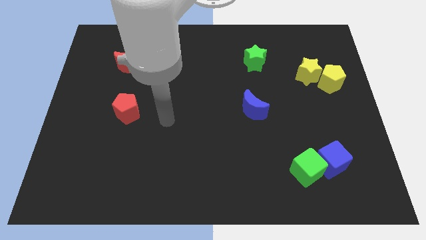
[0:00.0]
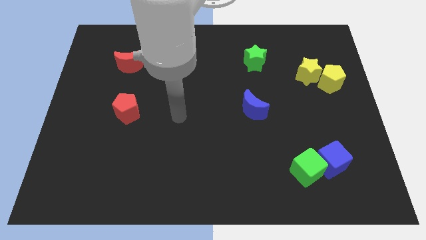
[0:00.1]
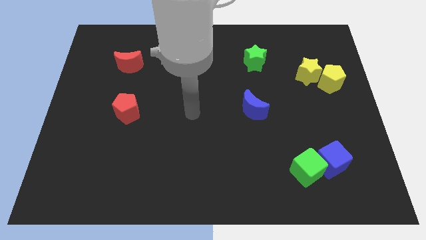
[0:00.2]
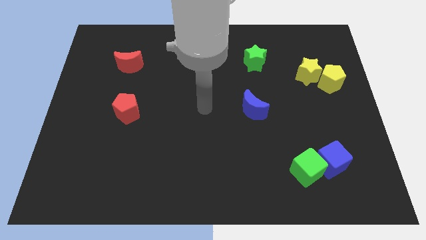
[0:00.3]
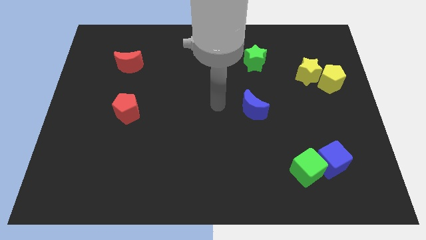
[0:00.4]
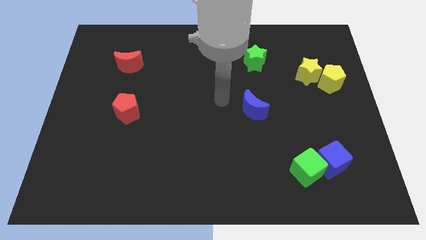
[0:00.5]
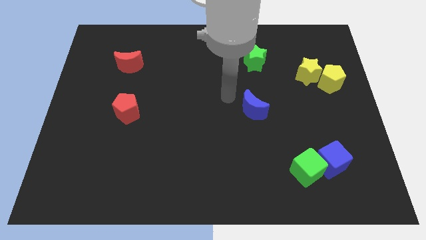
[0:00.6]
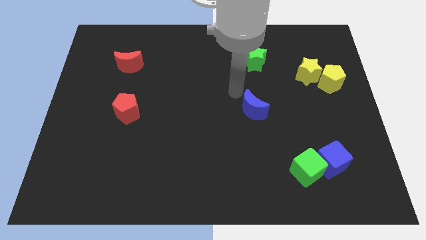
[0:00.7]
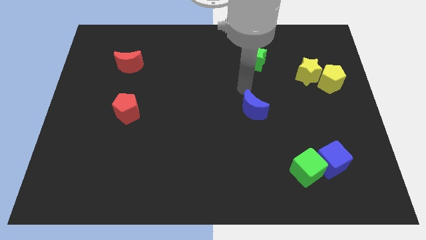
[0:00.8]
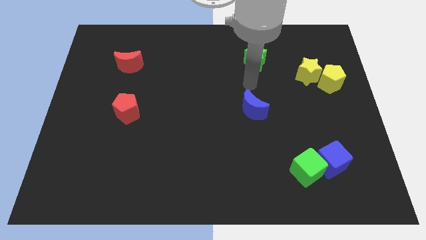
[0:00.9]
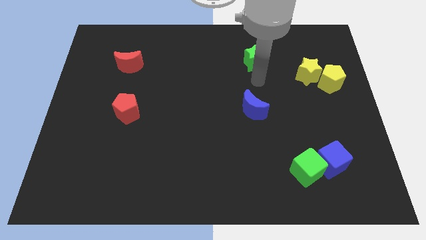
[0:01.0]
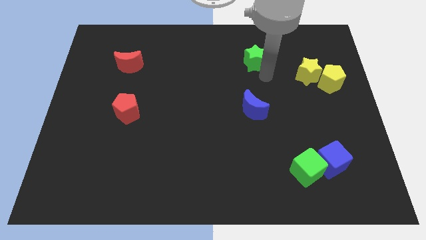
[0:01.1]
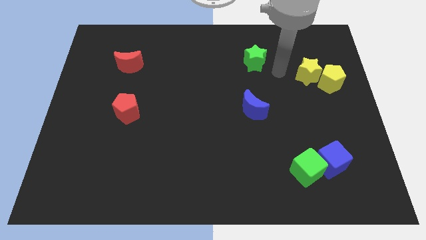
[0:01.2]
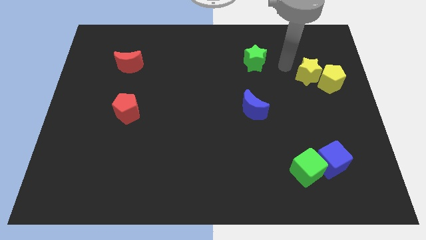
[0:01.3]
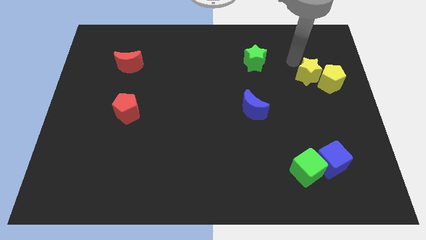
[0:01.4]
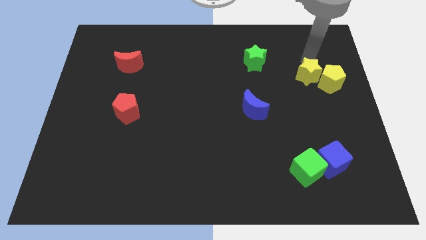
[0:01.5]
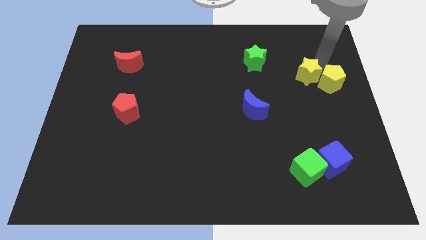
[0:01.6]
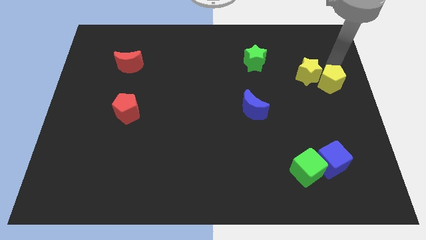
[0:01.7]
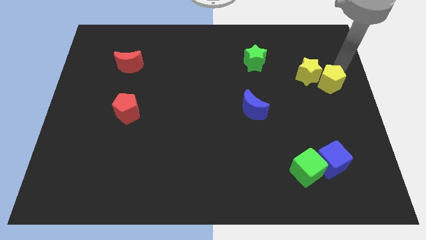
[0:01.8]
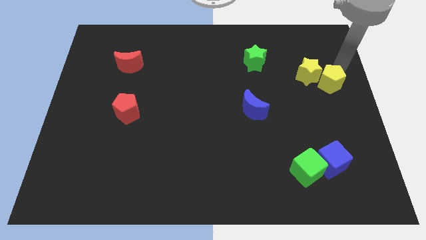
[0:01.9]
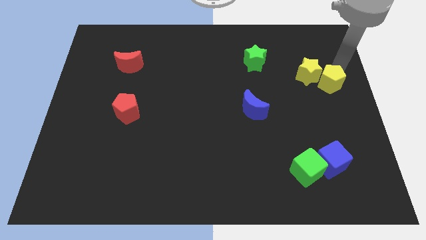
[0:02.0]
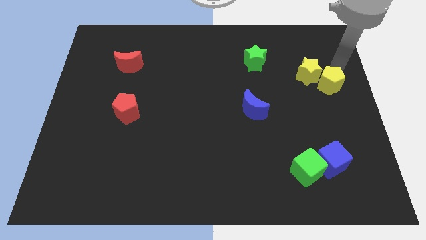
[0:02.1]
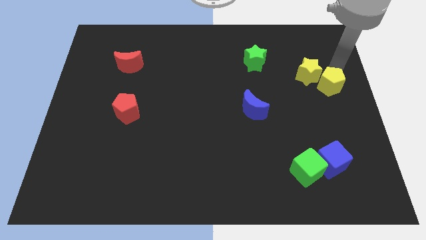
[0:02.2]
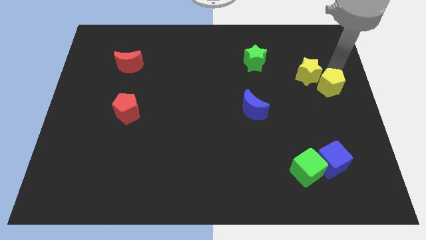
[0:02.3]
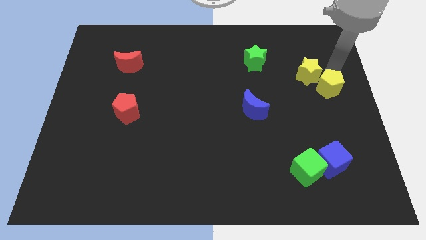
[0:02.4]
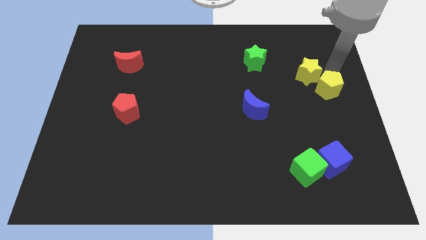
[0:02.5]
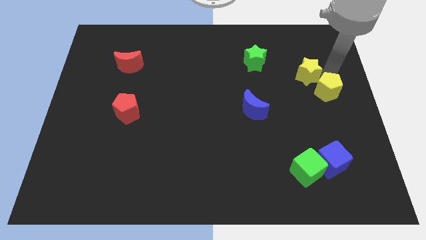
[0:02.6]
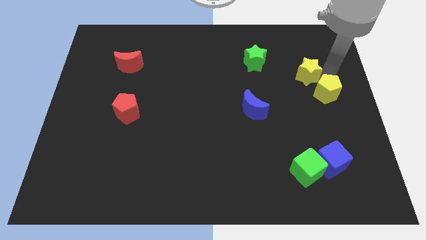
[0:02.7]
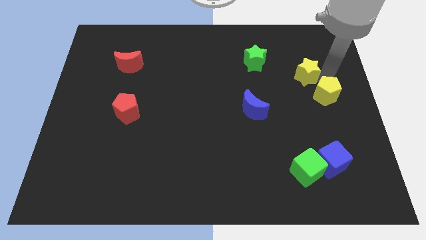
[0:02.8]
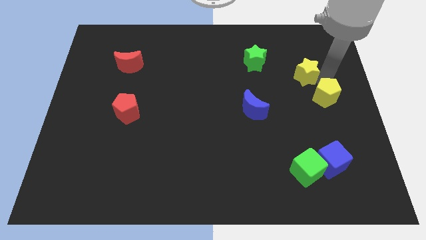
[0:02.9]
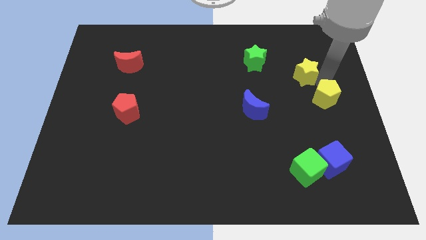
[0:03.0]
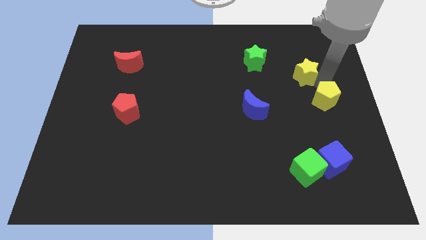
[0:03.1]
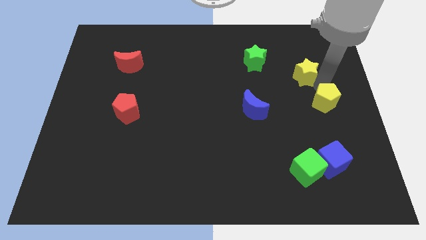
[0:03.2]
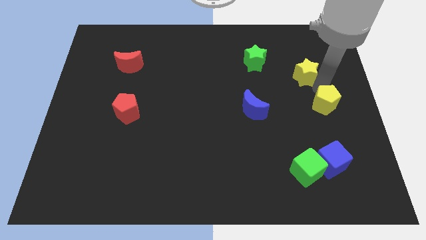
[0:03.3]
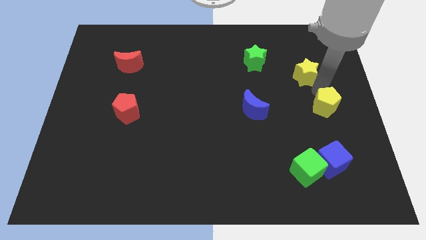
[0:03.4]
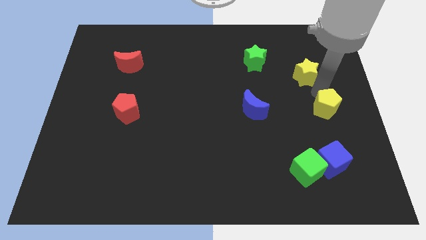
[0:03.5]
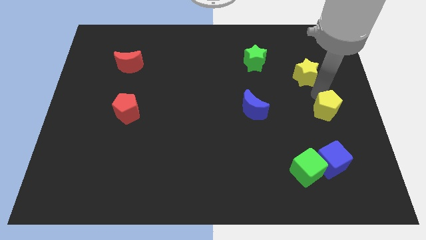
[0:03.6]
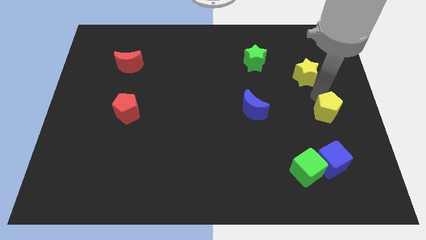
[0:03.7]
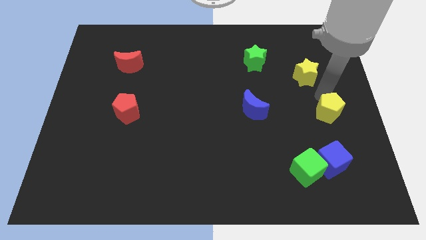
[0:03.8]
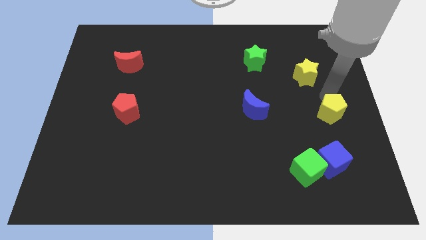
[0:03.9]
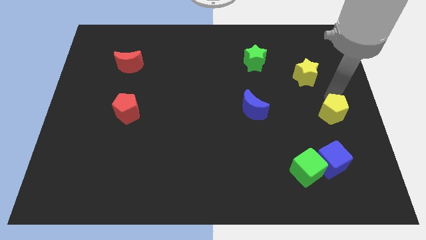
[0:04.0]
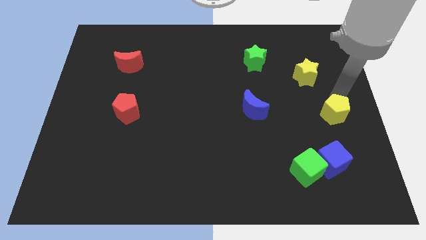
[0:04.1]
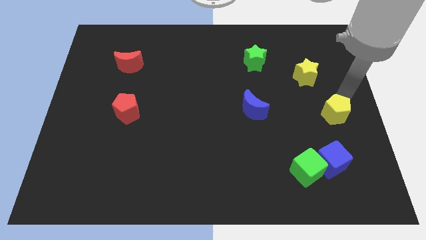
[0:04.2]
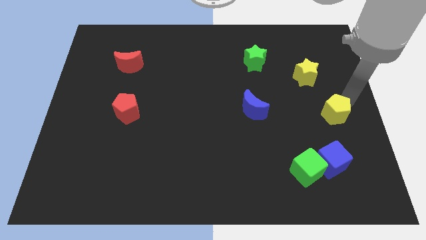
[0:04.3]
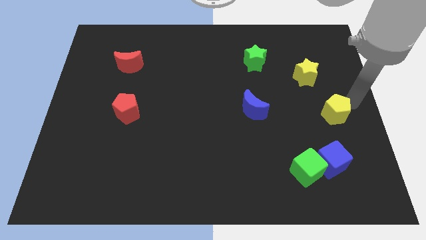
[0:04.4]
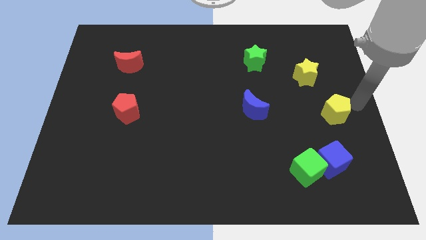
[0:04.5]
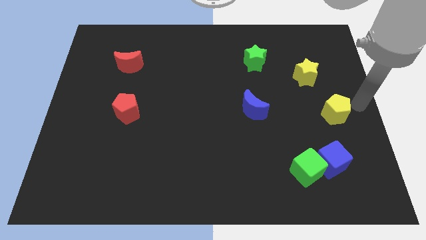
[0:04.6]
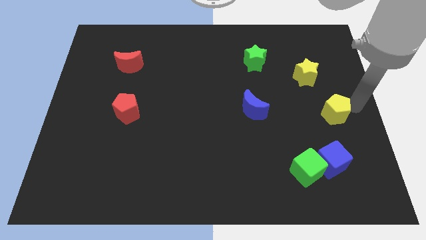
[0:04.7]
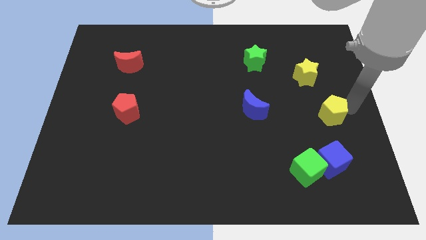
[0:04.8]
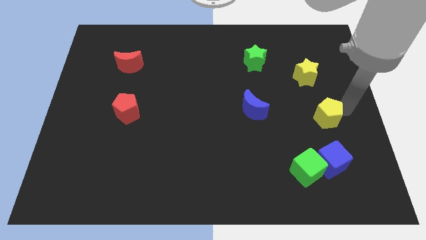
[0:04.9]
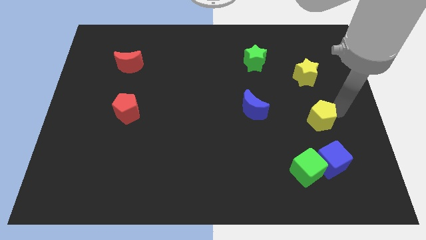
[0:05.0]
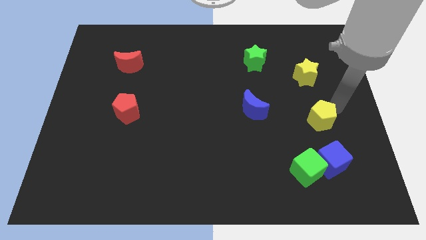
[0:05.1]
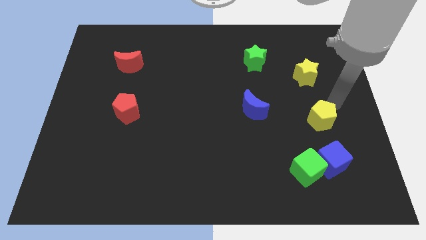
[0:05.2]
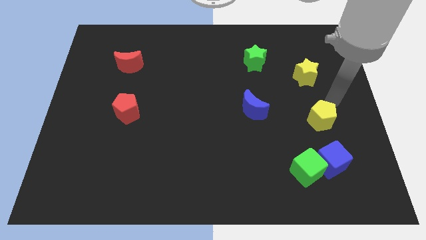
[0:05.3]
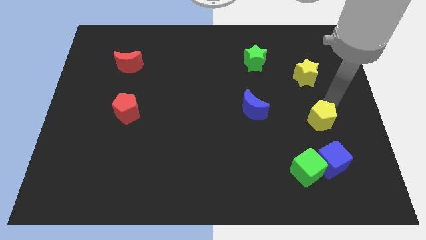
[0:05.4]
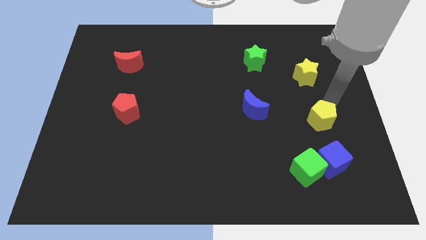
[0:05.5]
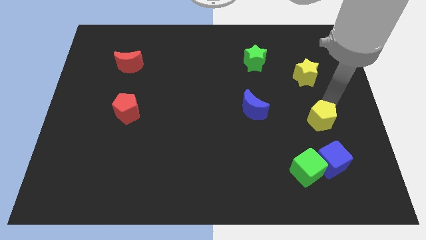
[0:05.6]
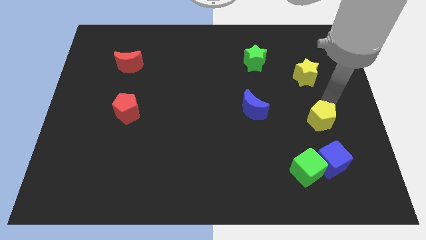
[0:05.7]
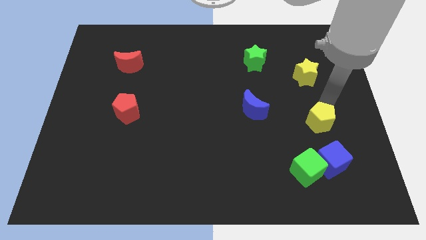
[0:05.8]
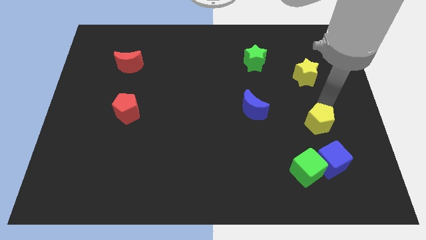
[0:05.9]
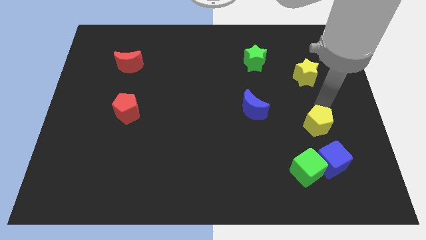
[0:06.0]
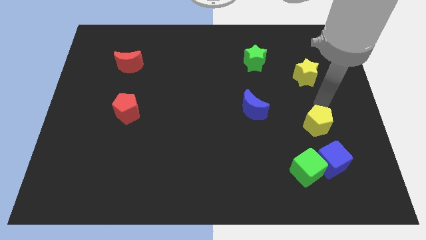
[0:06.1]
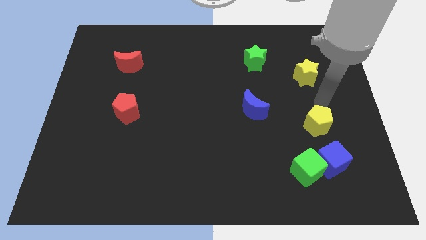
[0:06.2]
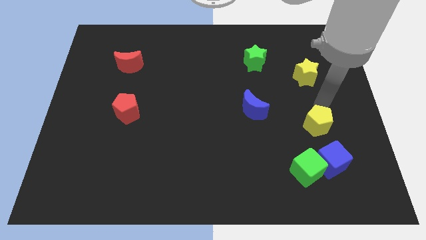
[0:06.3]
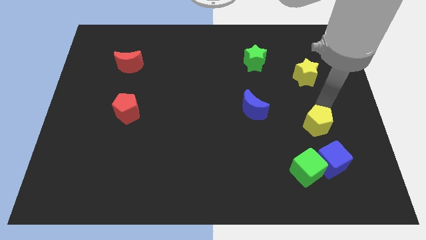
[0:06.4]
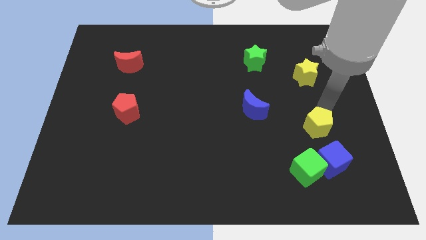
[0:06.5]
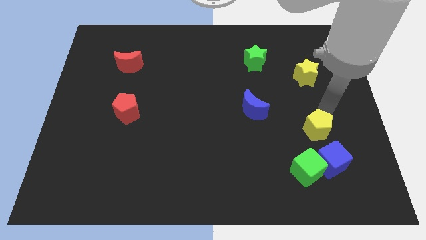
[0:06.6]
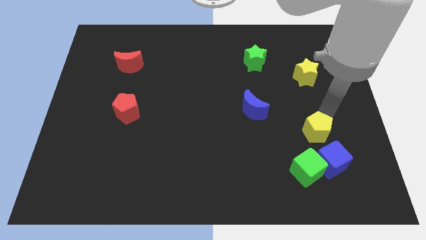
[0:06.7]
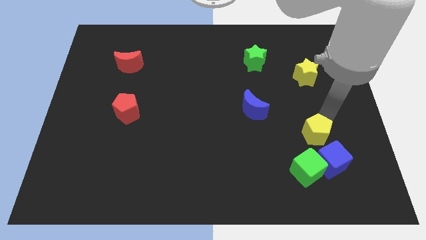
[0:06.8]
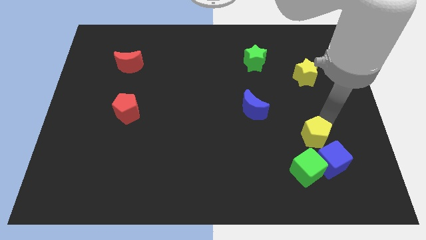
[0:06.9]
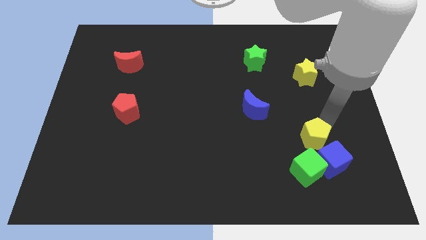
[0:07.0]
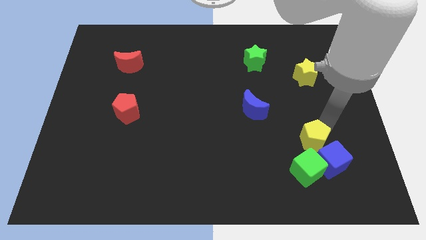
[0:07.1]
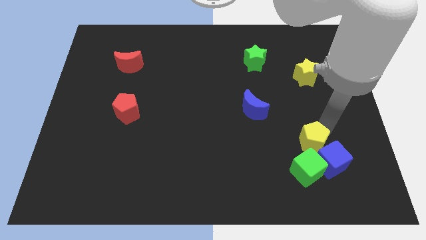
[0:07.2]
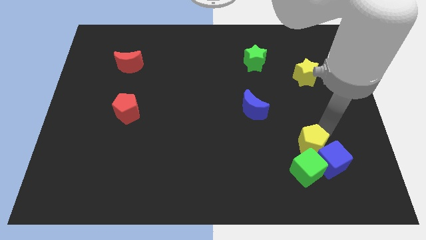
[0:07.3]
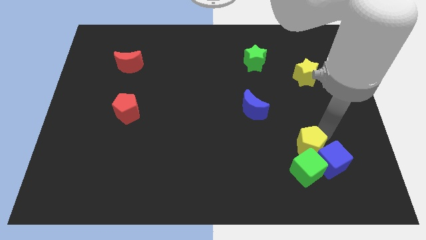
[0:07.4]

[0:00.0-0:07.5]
move the yellow pentagon to the green cube
